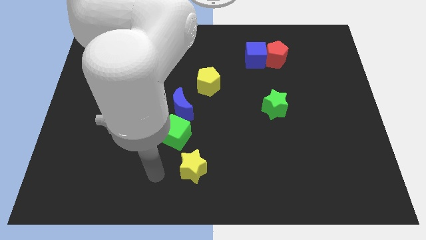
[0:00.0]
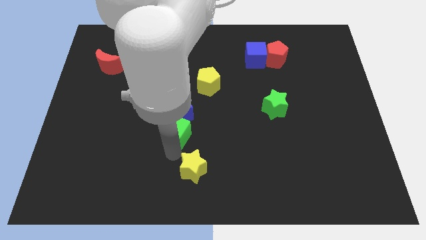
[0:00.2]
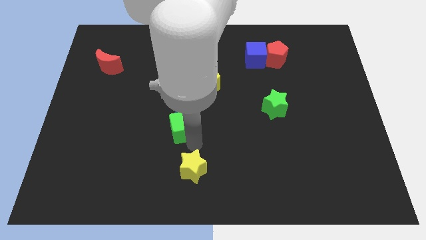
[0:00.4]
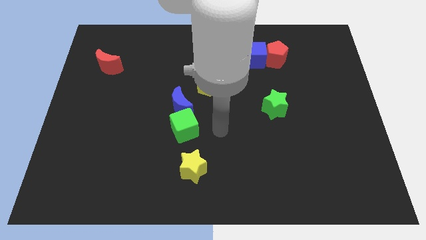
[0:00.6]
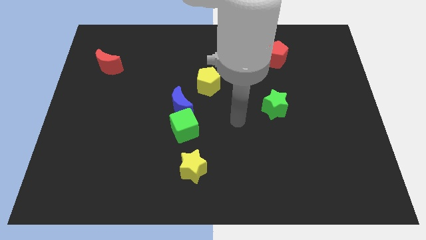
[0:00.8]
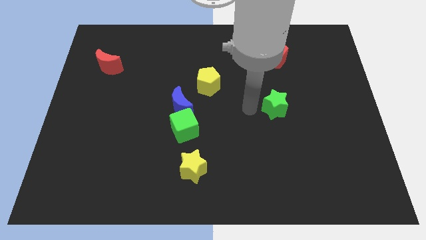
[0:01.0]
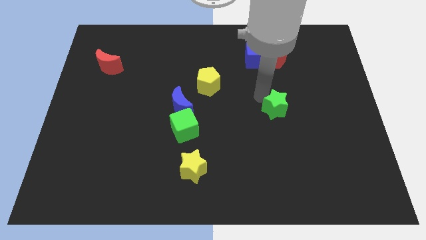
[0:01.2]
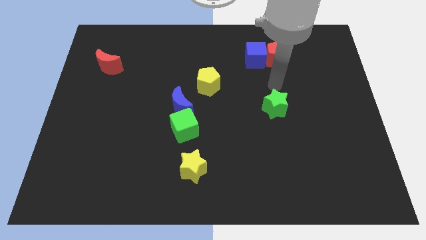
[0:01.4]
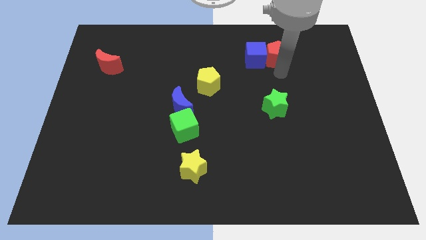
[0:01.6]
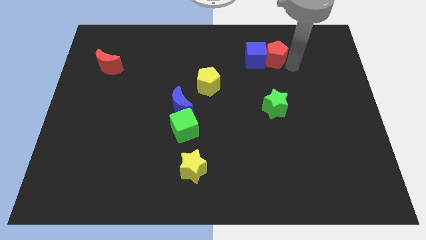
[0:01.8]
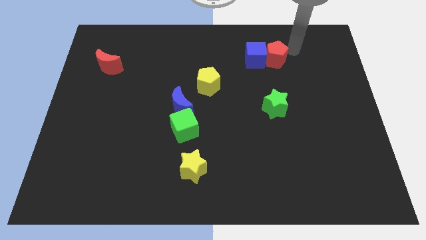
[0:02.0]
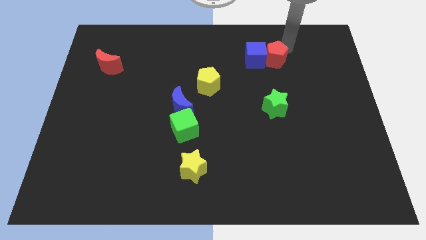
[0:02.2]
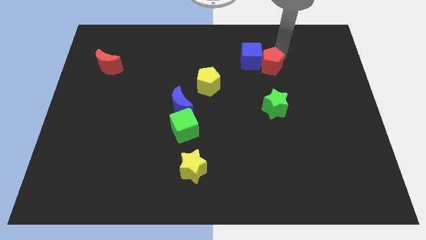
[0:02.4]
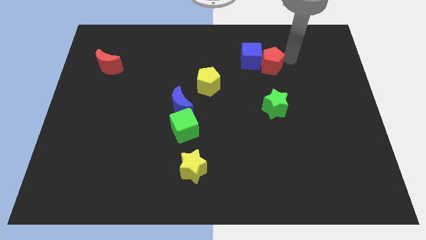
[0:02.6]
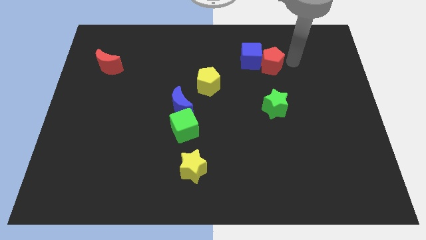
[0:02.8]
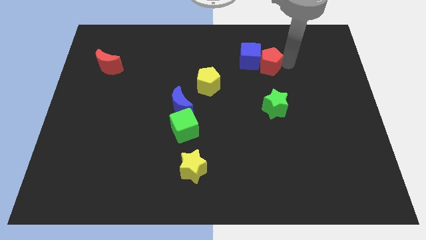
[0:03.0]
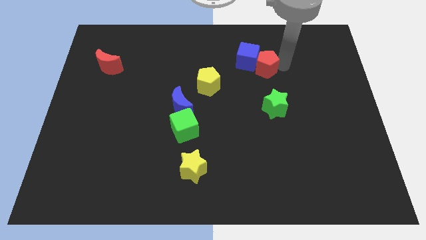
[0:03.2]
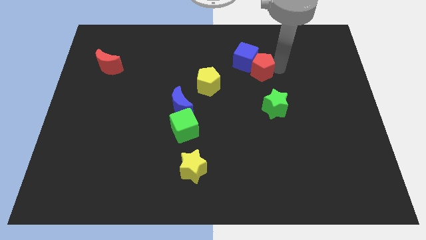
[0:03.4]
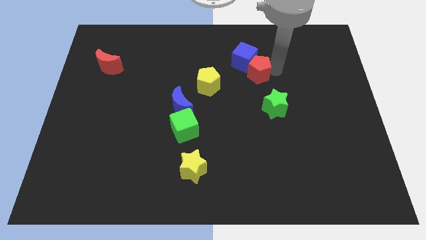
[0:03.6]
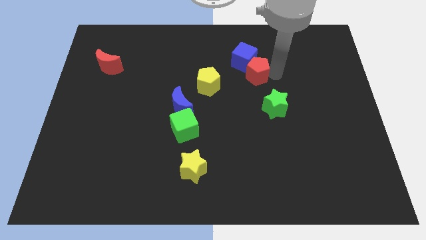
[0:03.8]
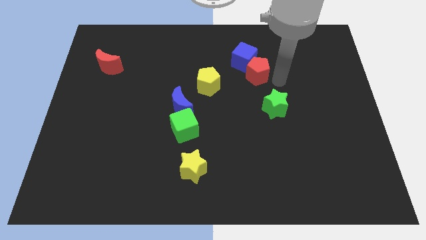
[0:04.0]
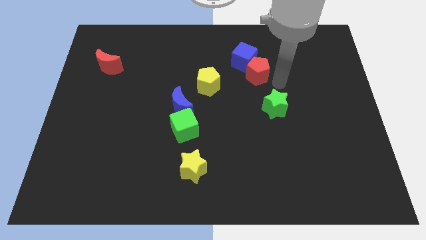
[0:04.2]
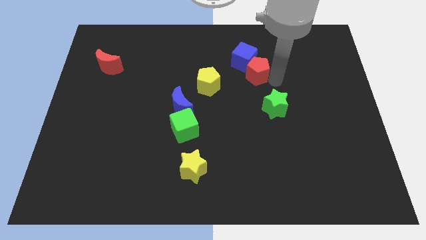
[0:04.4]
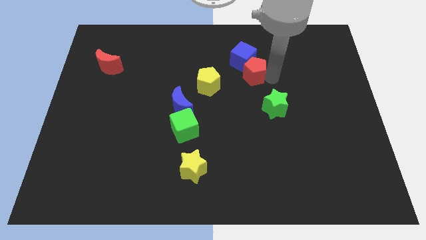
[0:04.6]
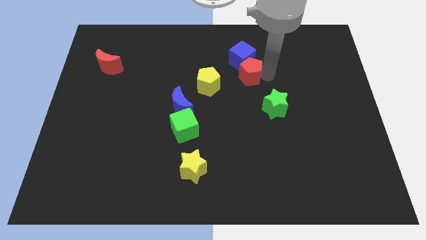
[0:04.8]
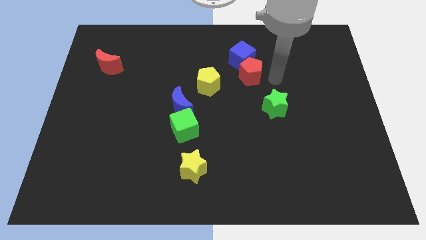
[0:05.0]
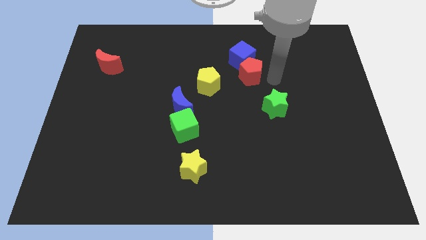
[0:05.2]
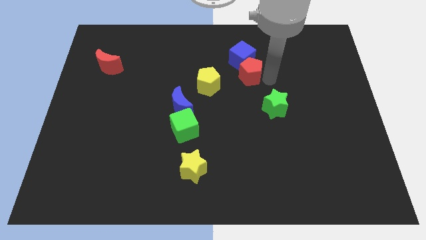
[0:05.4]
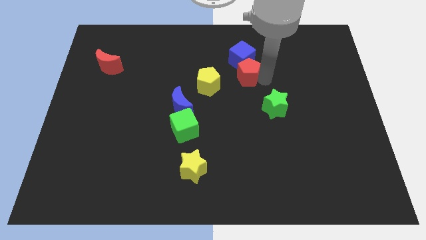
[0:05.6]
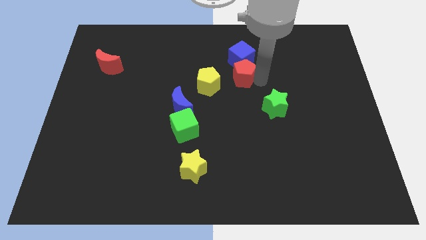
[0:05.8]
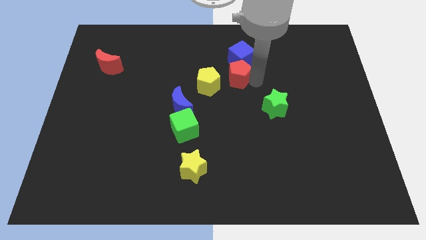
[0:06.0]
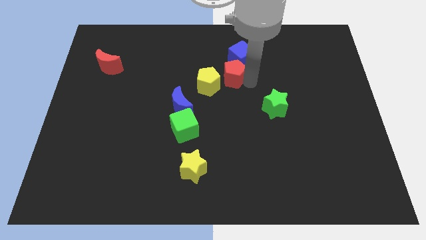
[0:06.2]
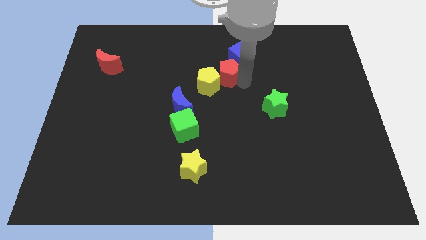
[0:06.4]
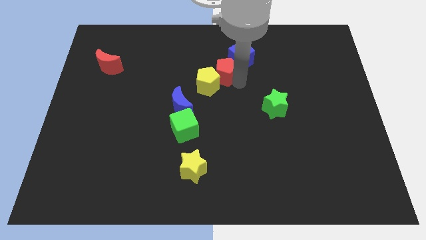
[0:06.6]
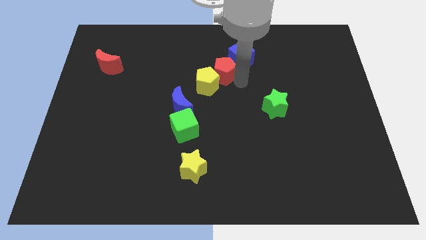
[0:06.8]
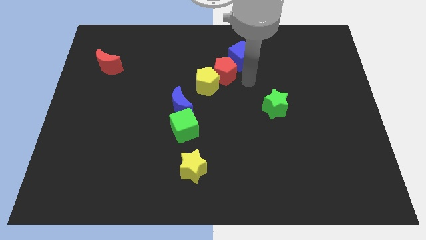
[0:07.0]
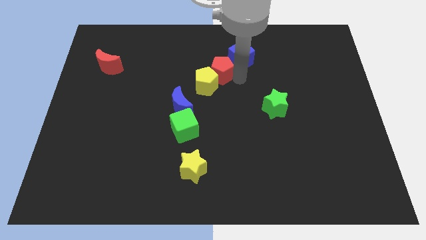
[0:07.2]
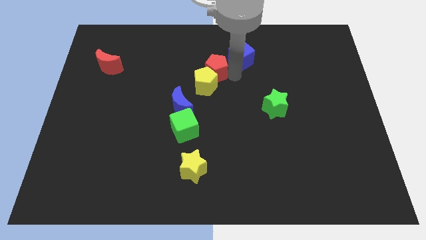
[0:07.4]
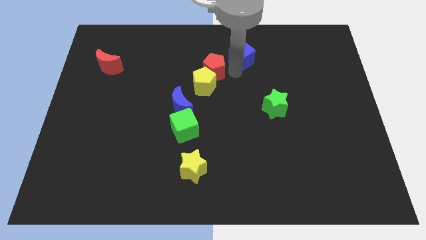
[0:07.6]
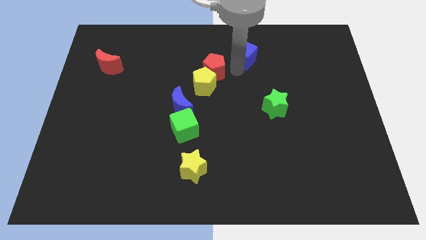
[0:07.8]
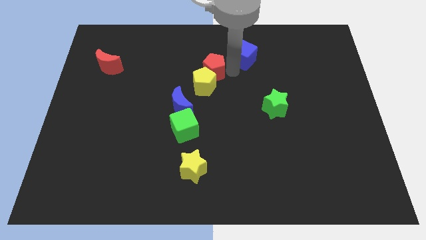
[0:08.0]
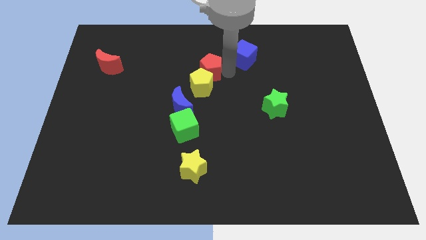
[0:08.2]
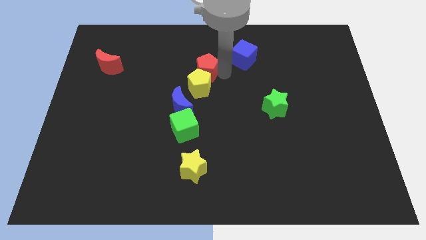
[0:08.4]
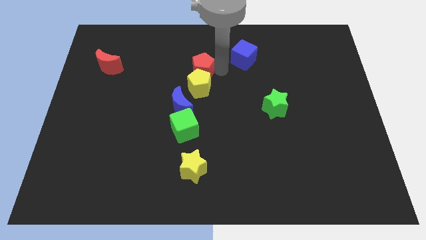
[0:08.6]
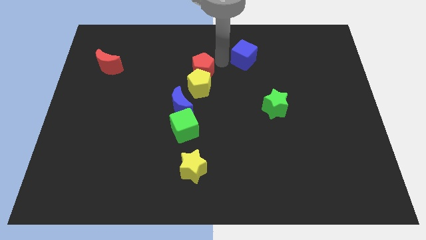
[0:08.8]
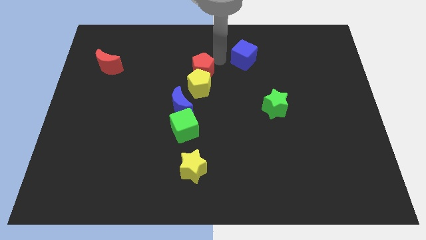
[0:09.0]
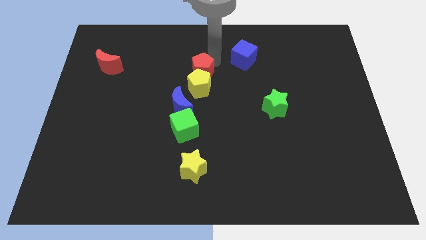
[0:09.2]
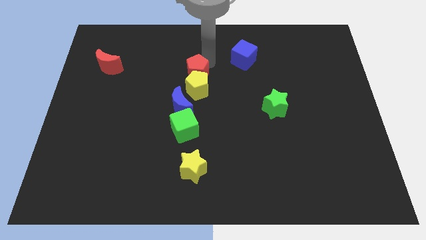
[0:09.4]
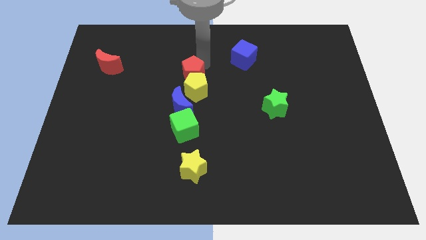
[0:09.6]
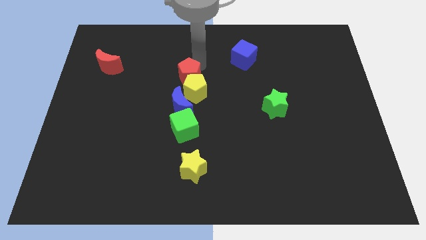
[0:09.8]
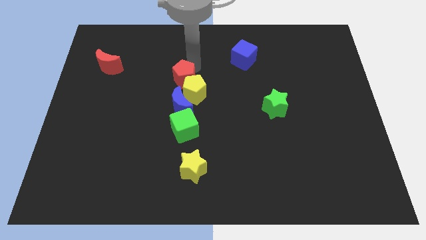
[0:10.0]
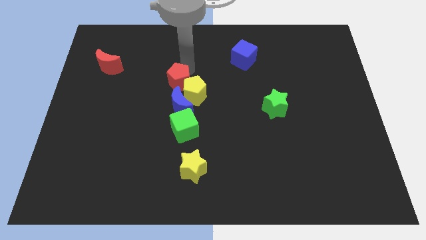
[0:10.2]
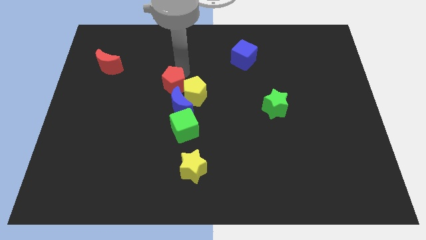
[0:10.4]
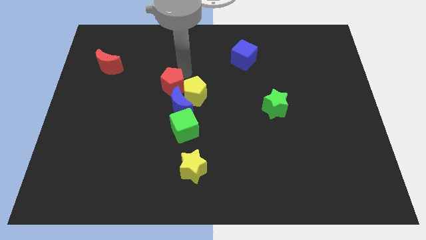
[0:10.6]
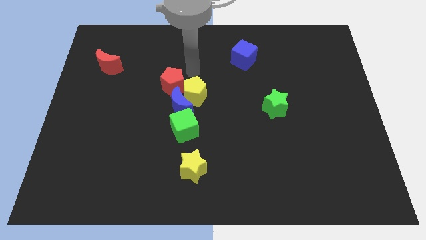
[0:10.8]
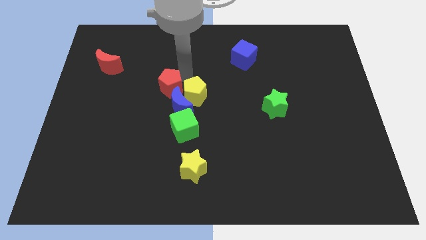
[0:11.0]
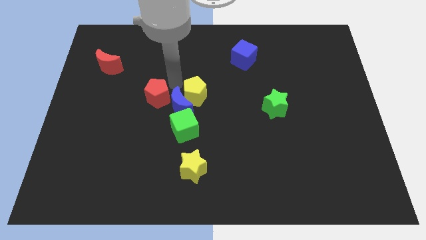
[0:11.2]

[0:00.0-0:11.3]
slide the red pentagon left of the blue moon

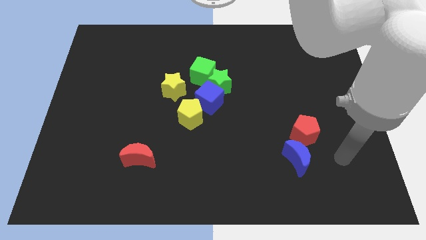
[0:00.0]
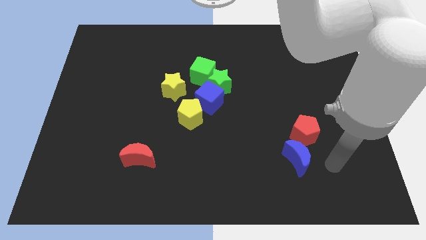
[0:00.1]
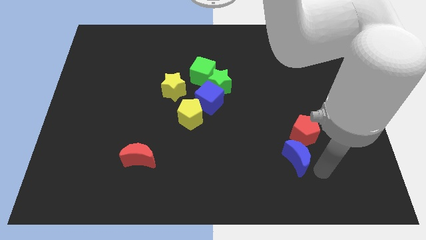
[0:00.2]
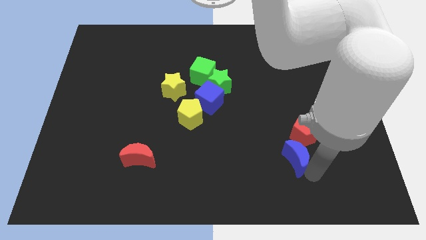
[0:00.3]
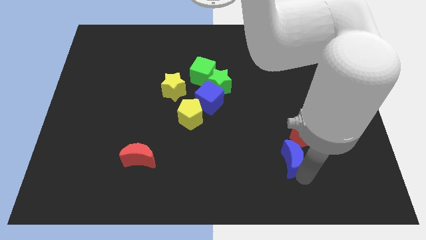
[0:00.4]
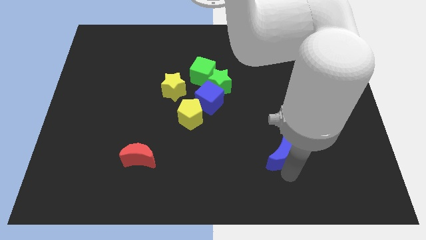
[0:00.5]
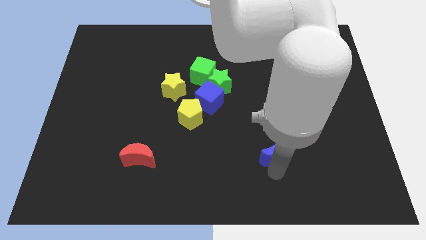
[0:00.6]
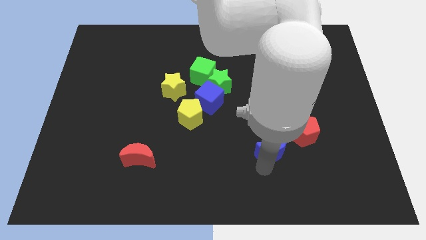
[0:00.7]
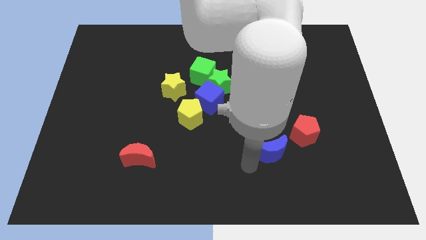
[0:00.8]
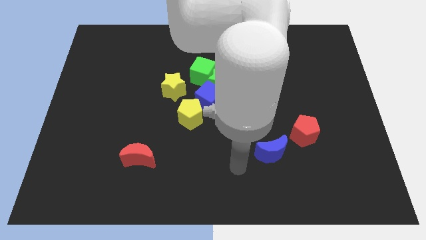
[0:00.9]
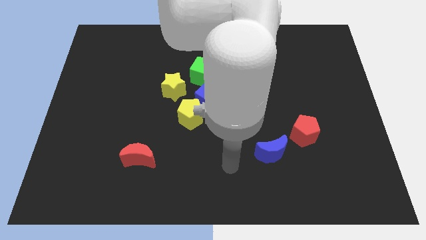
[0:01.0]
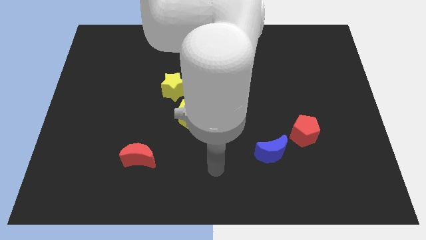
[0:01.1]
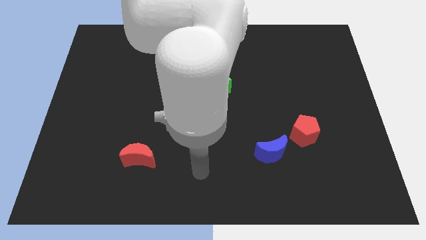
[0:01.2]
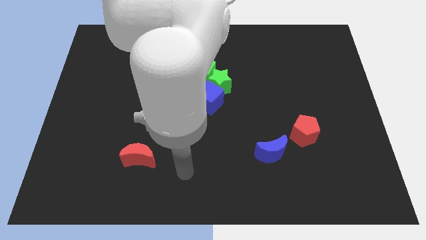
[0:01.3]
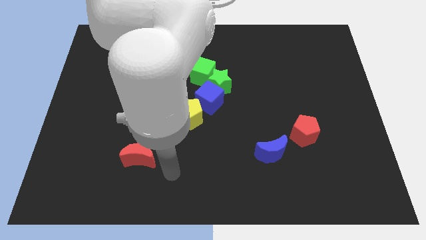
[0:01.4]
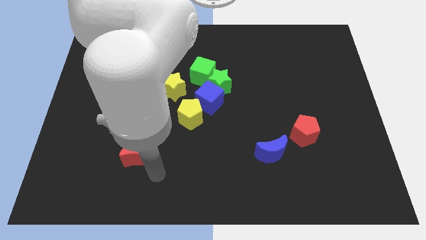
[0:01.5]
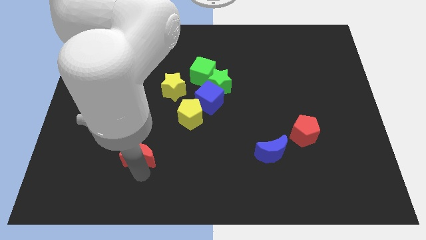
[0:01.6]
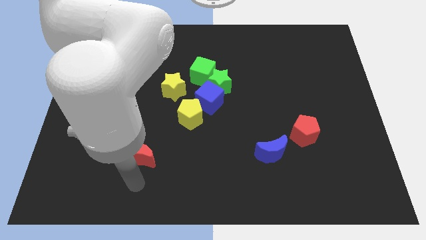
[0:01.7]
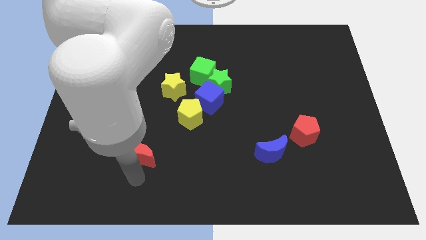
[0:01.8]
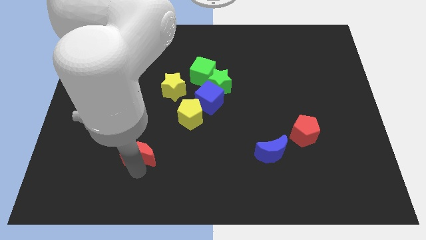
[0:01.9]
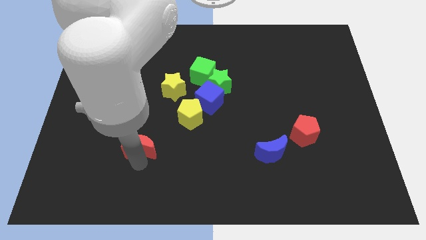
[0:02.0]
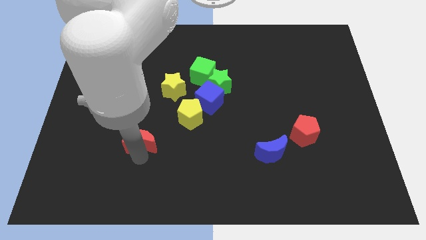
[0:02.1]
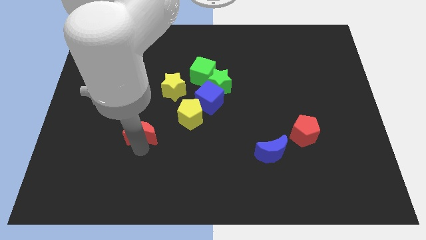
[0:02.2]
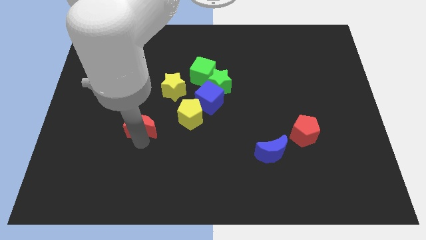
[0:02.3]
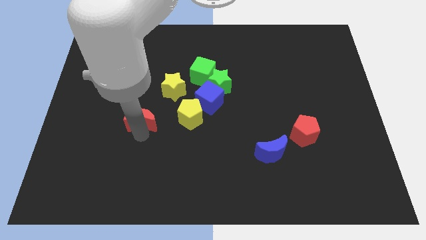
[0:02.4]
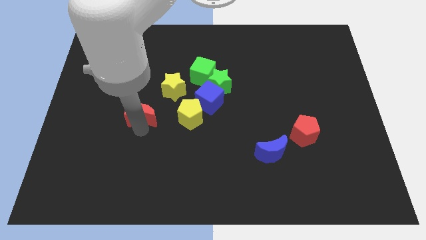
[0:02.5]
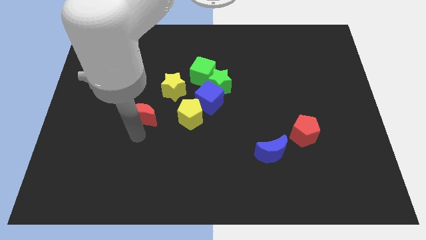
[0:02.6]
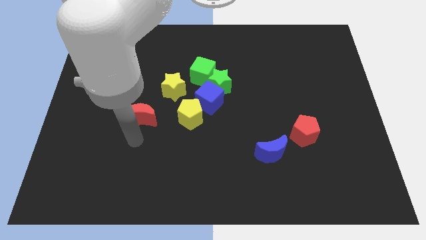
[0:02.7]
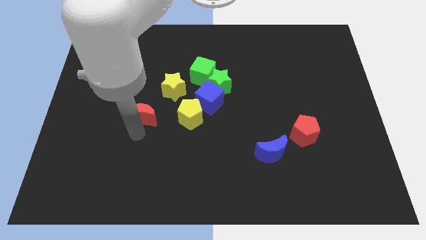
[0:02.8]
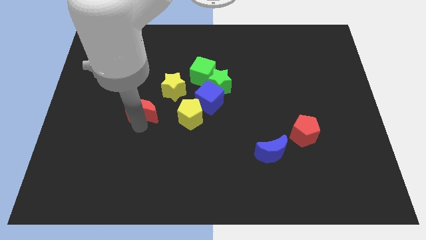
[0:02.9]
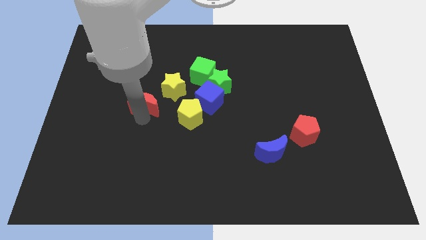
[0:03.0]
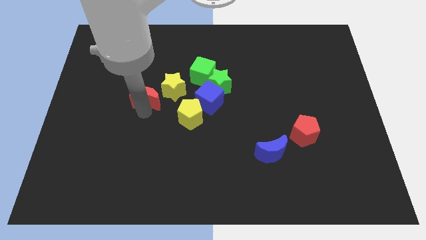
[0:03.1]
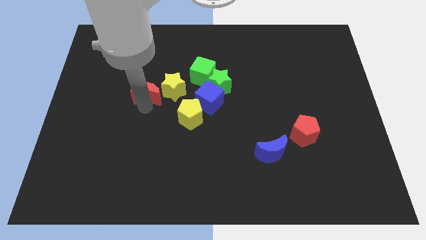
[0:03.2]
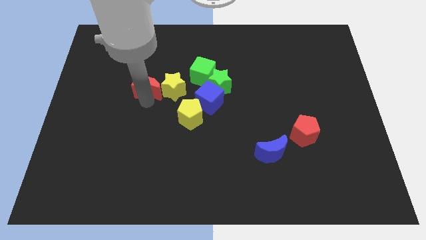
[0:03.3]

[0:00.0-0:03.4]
move the red moon to the top left of the yellow star
